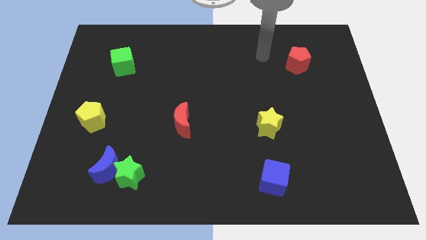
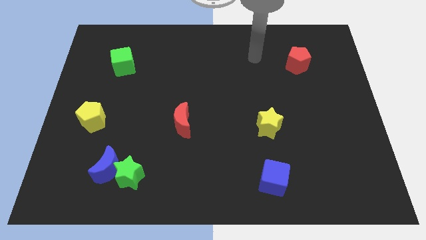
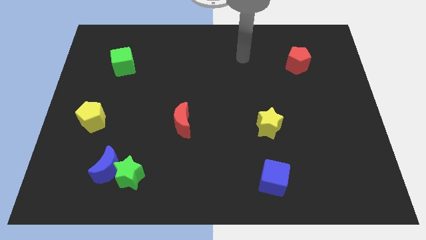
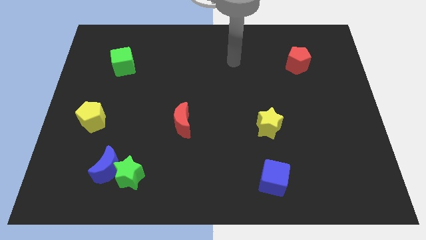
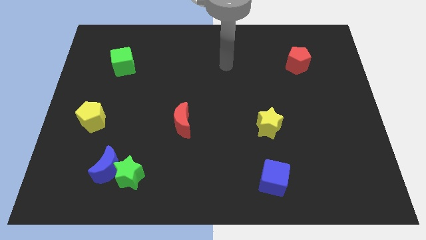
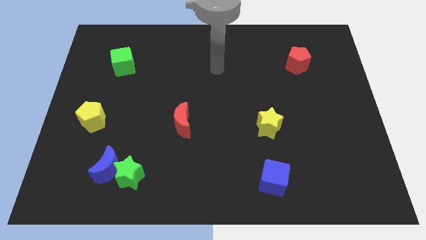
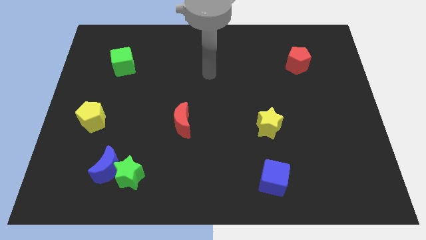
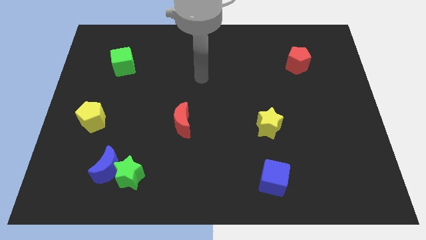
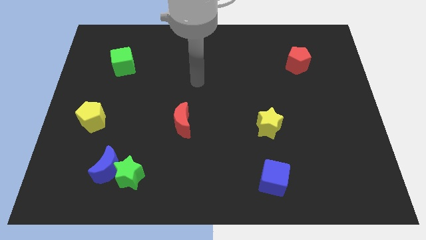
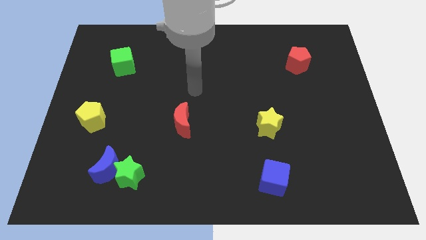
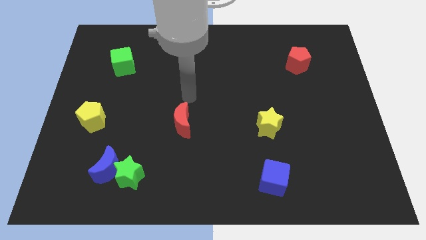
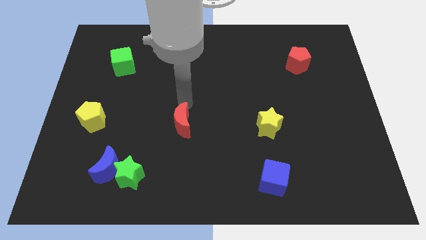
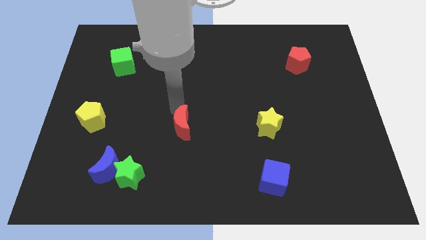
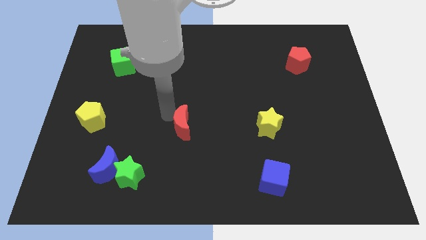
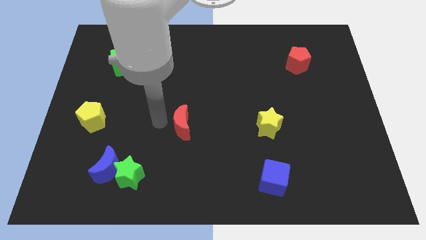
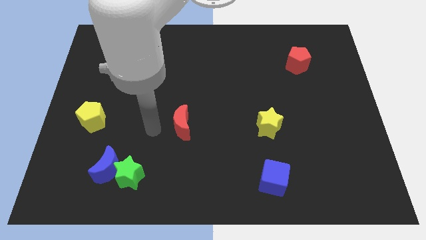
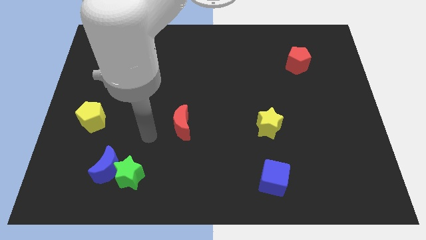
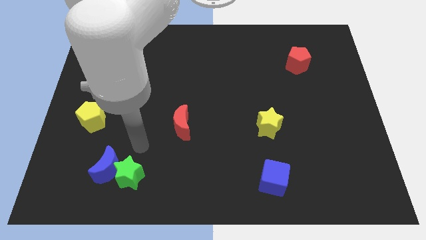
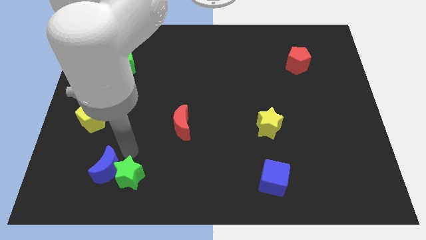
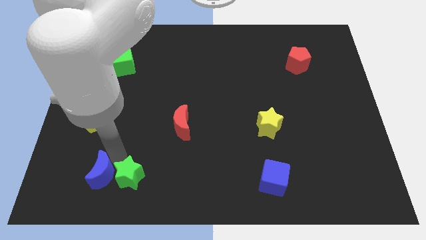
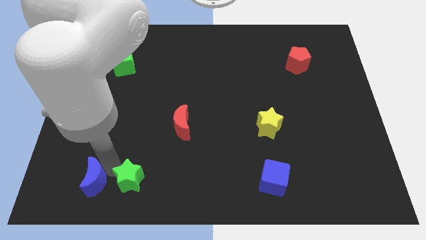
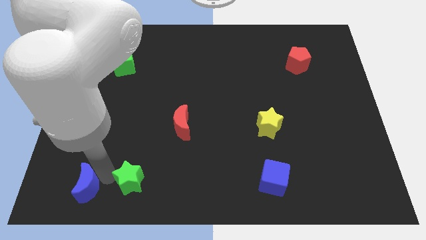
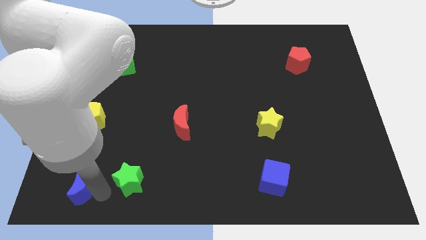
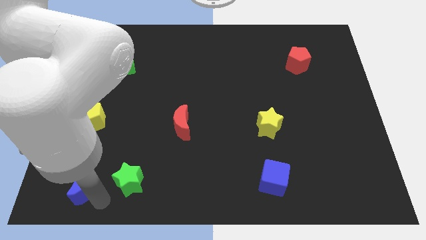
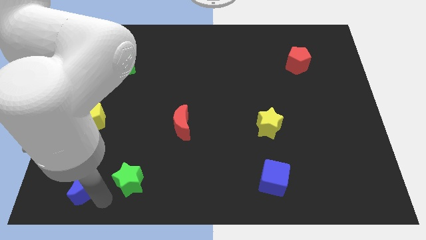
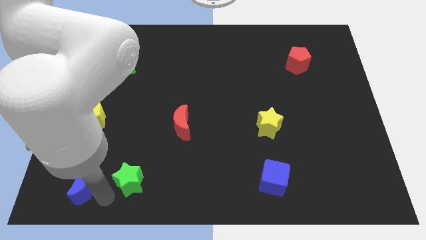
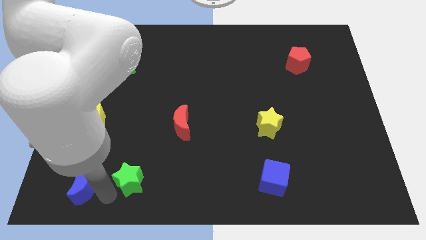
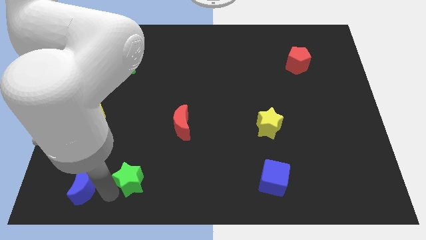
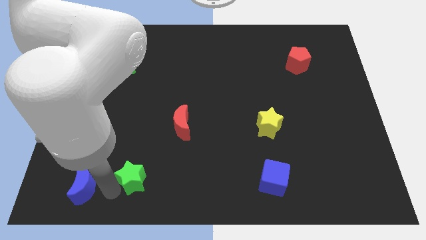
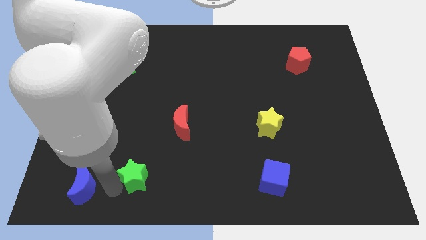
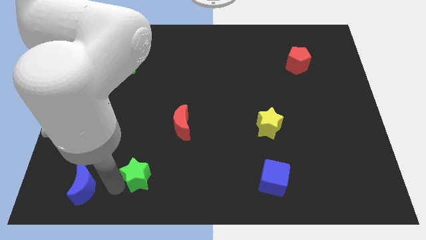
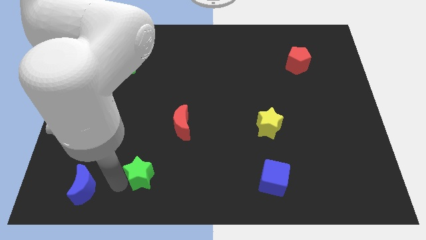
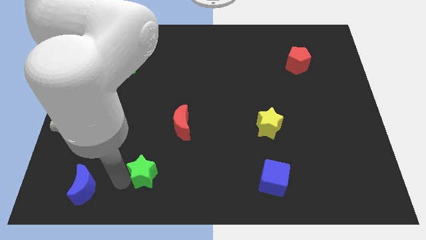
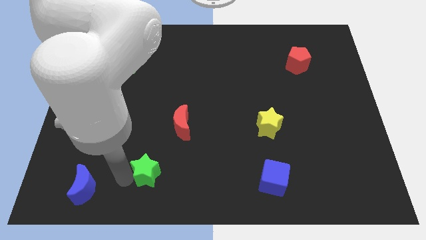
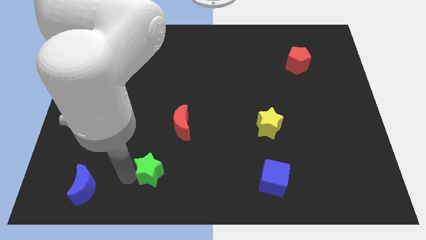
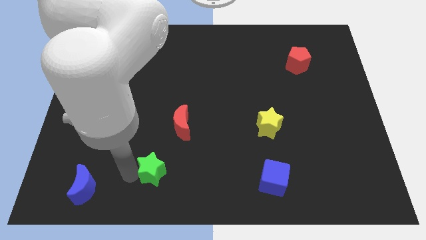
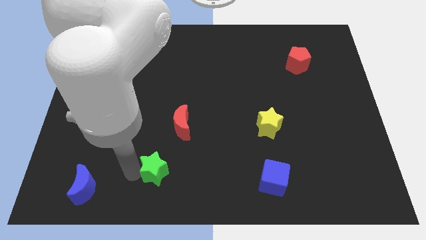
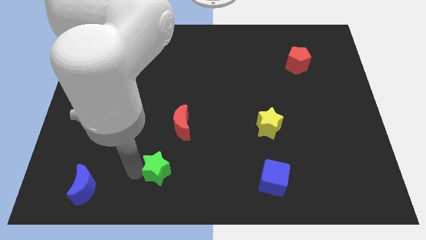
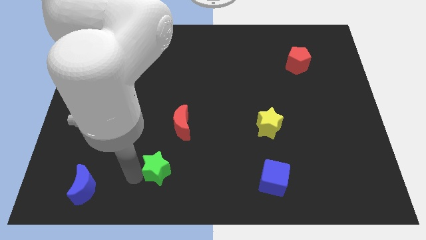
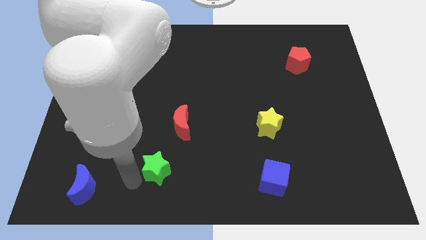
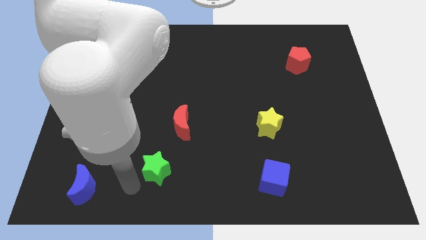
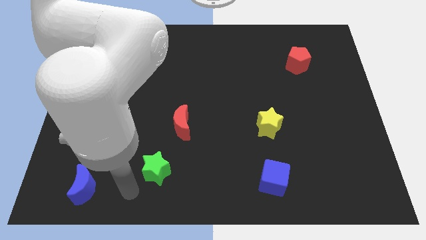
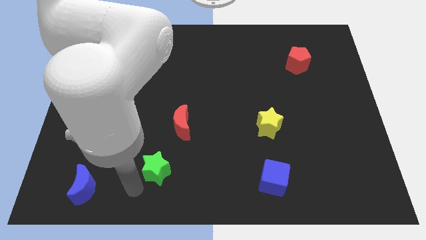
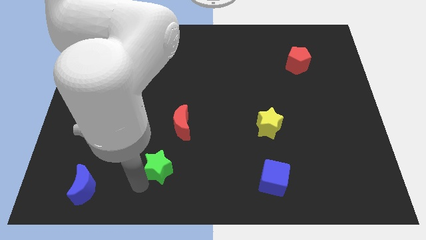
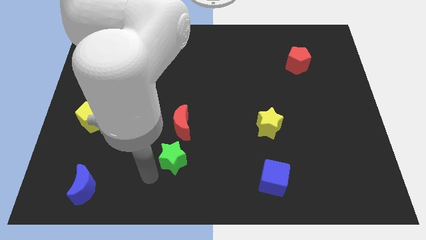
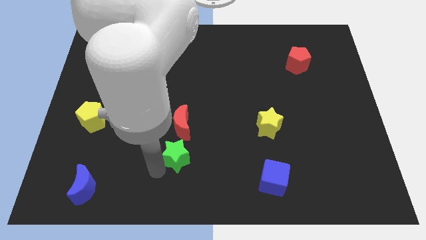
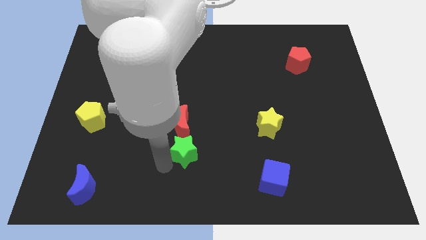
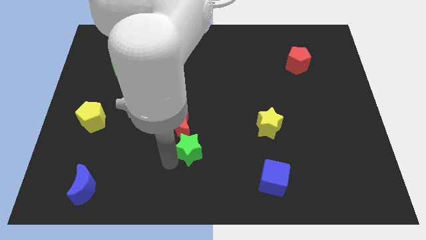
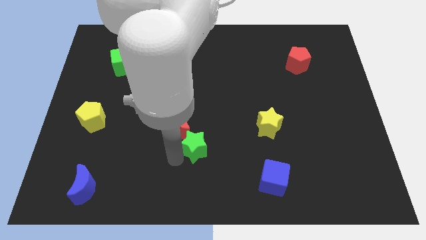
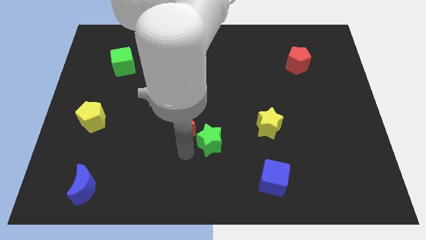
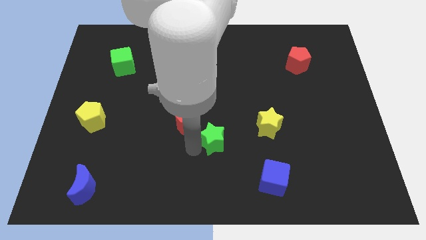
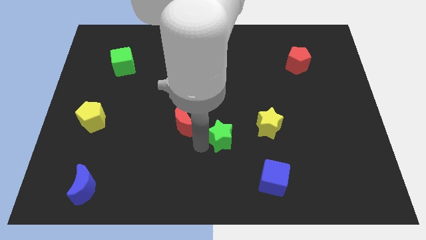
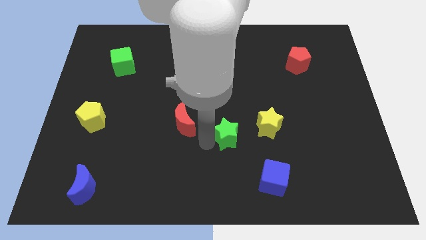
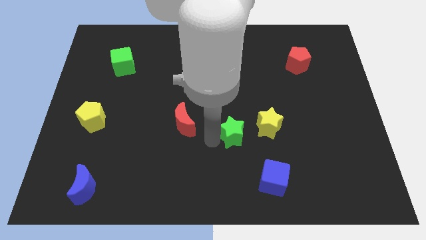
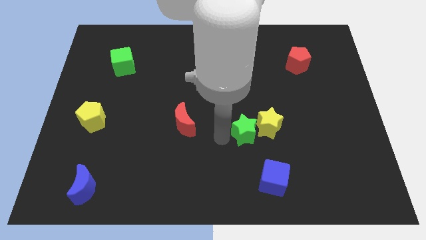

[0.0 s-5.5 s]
push the green star towards the yellow star

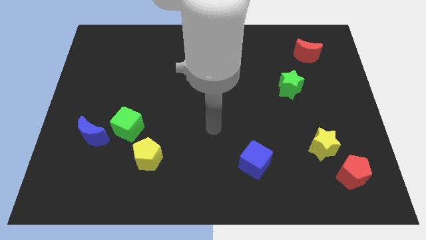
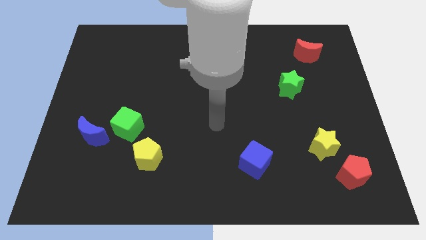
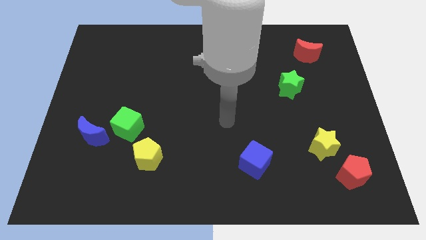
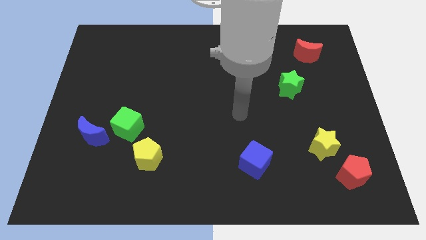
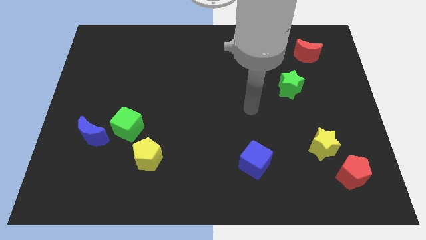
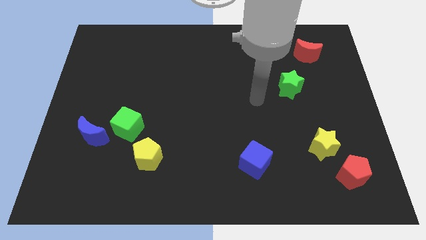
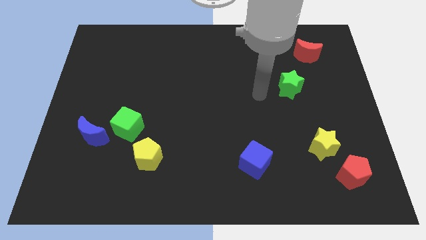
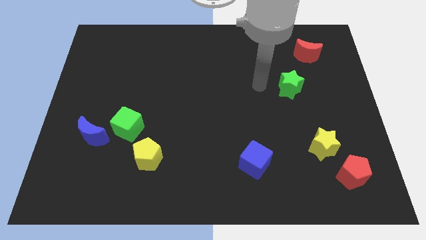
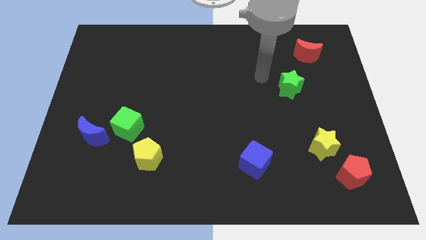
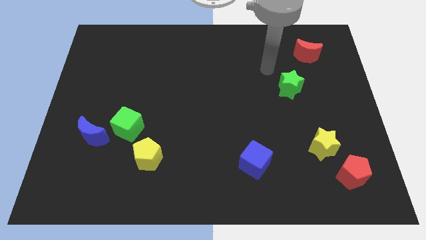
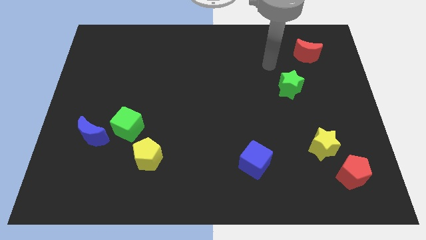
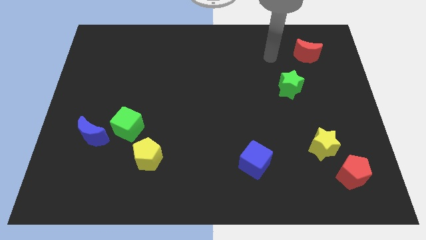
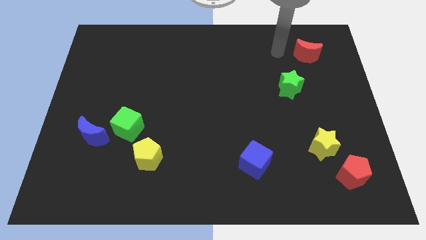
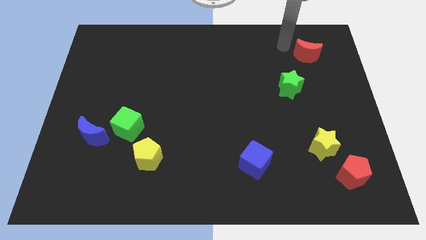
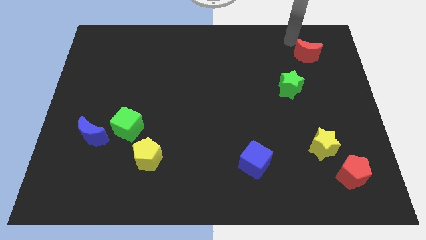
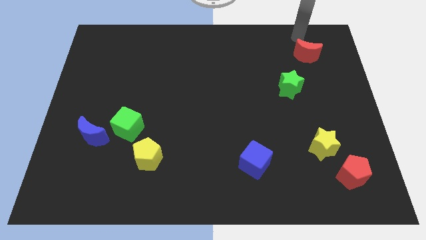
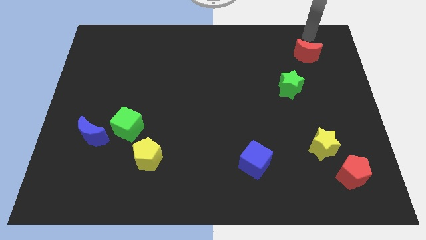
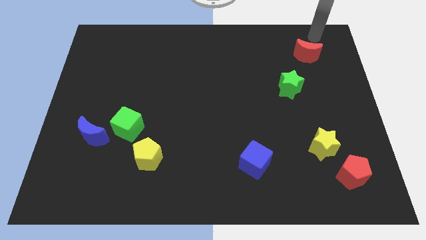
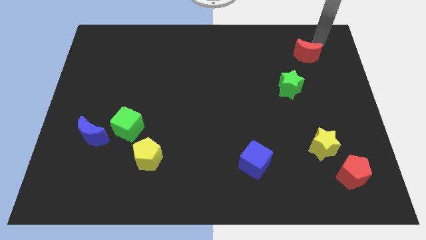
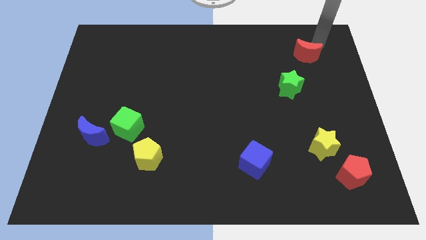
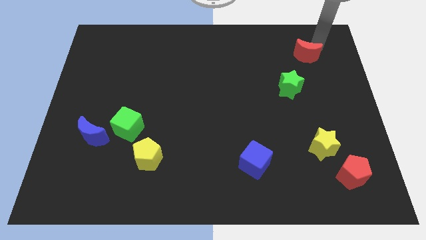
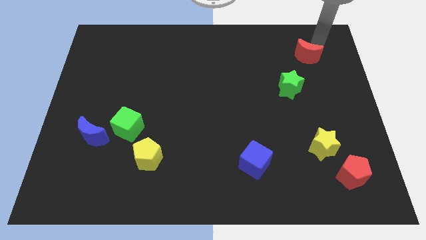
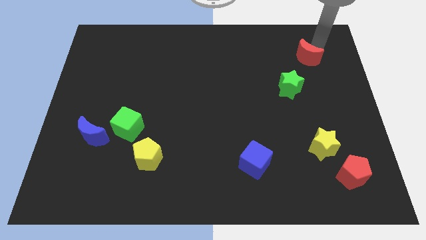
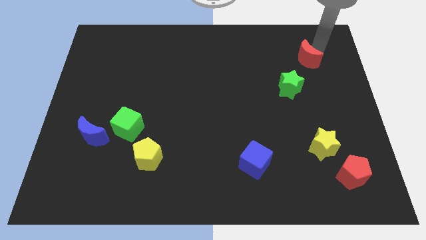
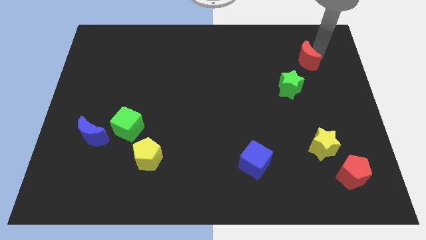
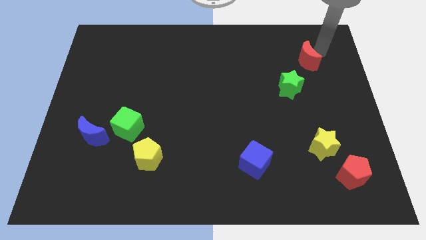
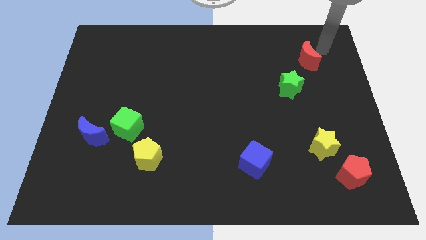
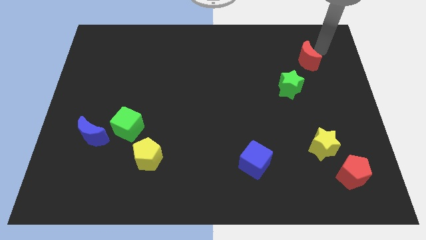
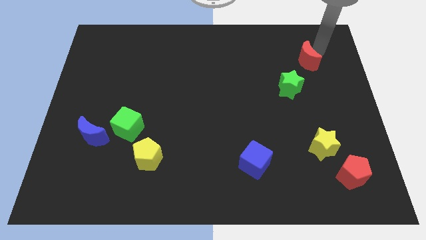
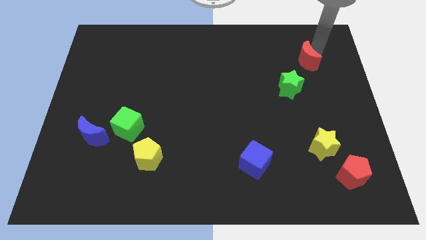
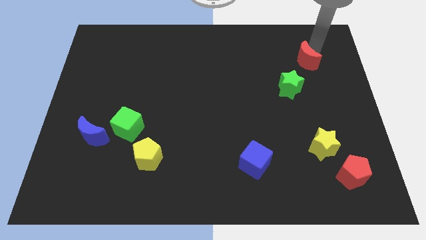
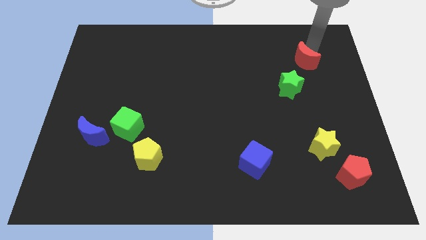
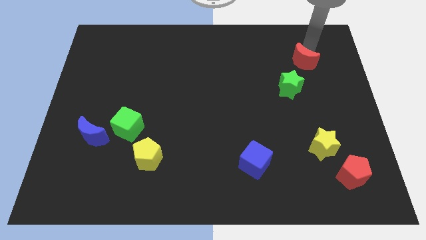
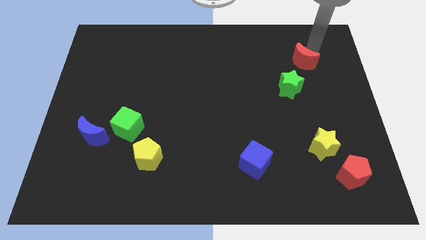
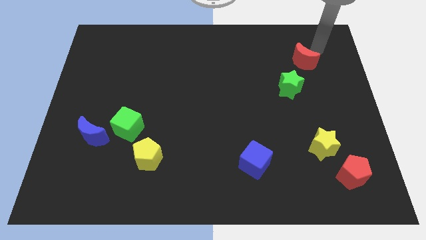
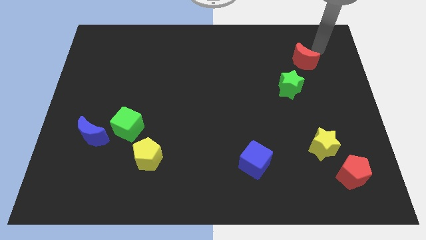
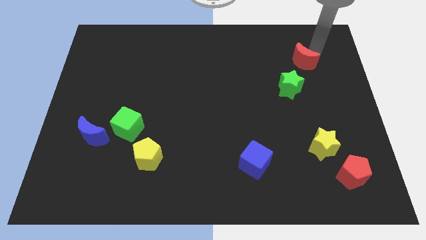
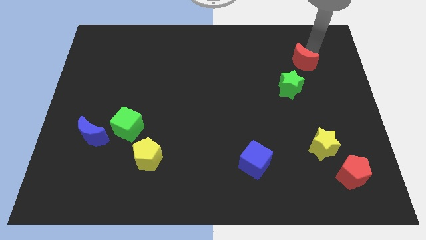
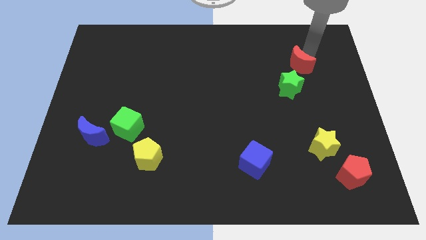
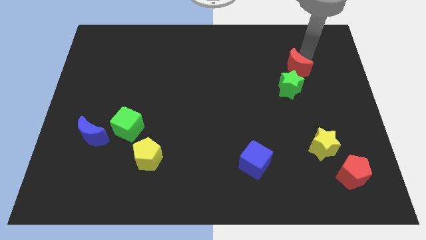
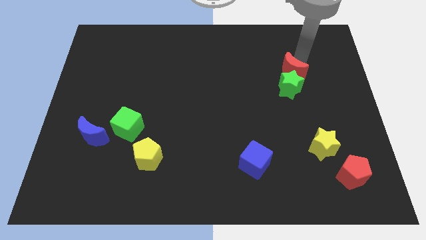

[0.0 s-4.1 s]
push the red moon close to the green star
